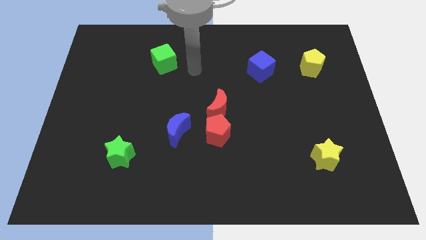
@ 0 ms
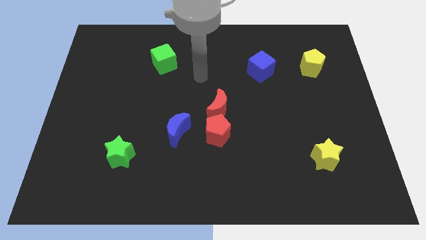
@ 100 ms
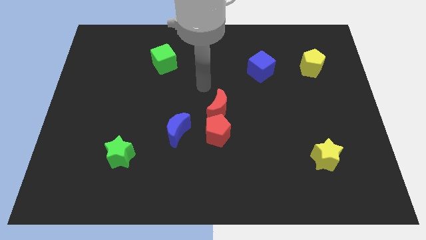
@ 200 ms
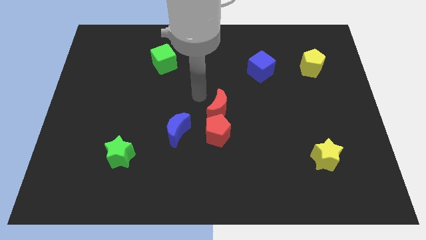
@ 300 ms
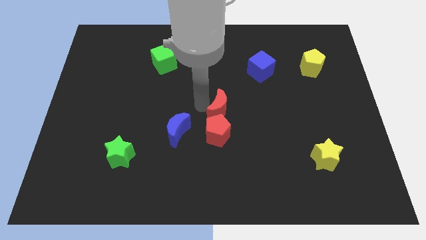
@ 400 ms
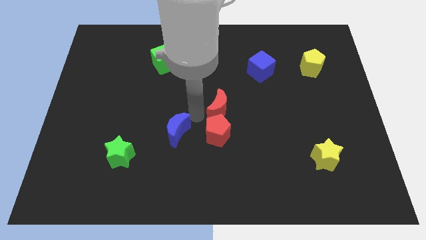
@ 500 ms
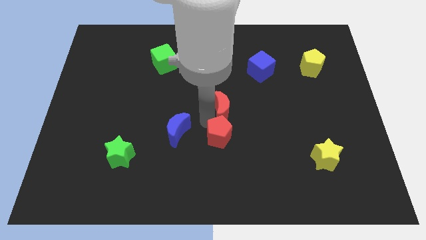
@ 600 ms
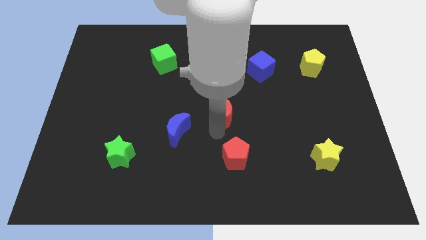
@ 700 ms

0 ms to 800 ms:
move the red moon away from the red pentagon

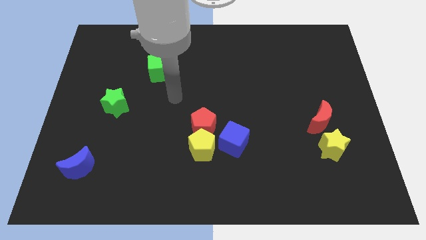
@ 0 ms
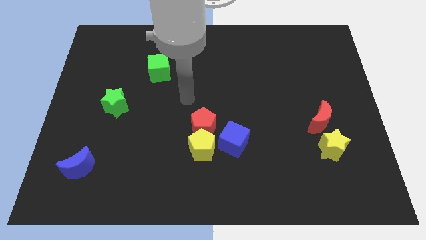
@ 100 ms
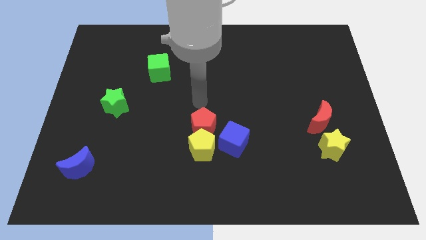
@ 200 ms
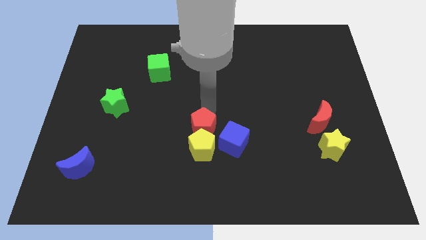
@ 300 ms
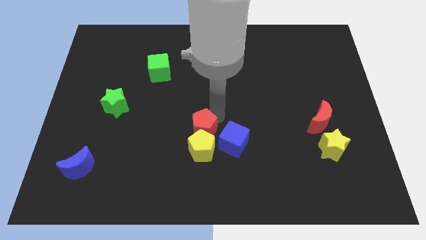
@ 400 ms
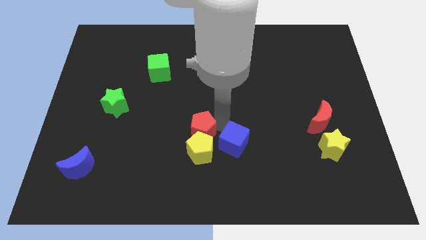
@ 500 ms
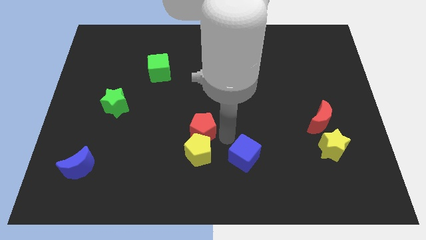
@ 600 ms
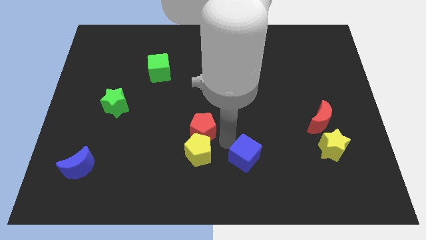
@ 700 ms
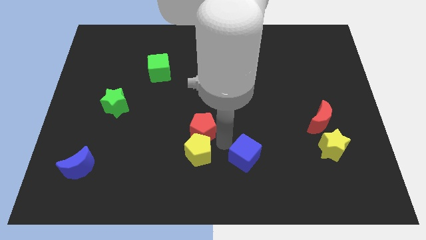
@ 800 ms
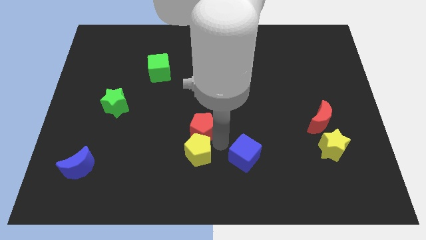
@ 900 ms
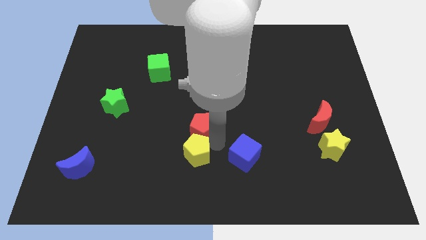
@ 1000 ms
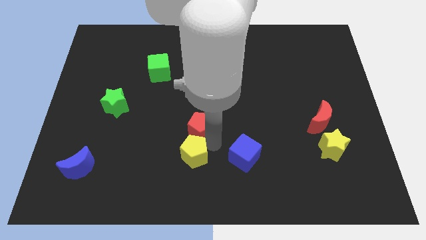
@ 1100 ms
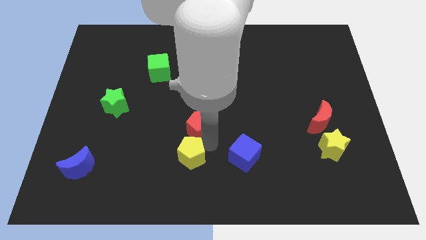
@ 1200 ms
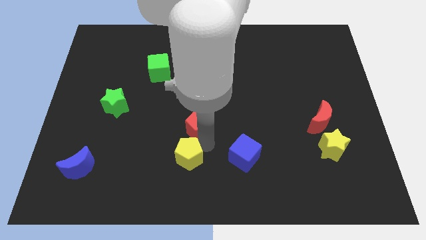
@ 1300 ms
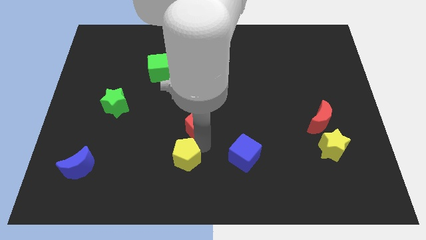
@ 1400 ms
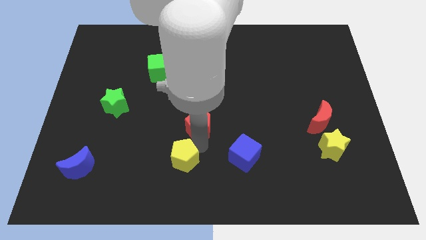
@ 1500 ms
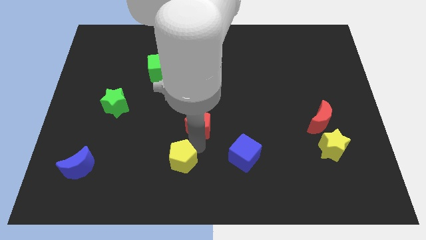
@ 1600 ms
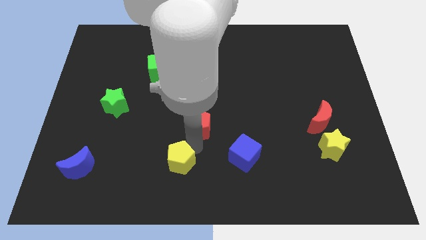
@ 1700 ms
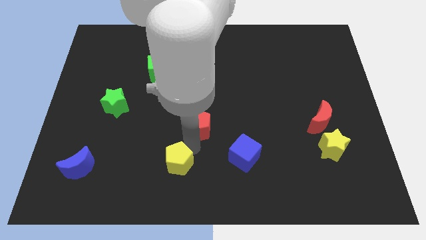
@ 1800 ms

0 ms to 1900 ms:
move the yellow pentagon away from the red pentagon and blue cube

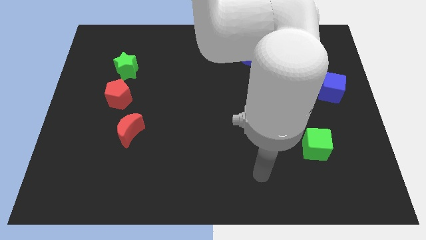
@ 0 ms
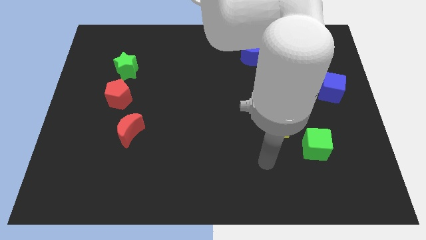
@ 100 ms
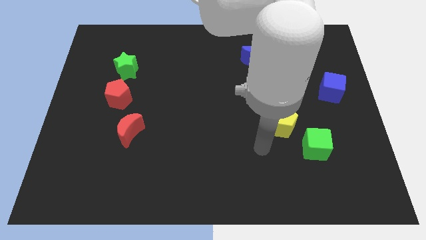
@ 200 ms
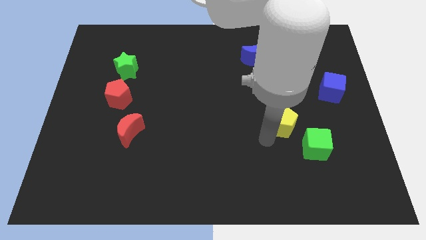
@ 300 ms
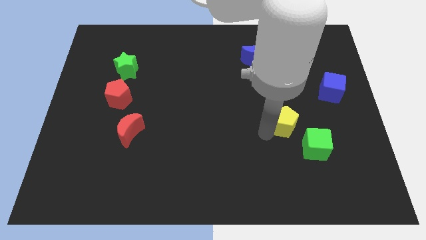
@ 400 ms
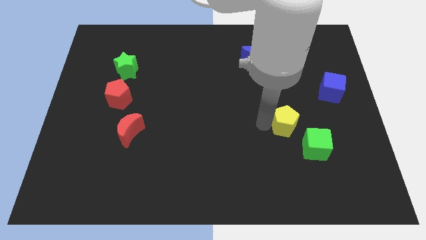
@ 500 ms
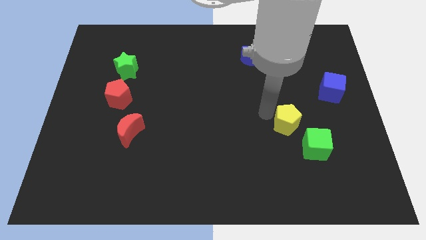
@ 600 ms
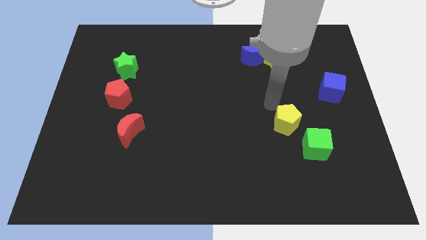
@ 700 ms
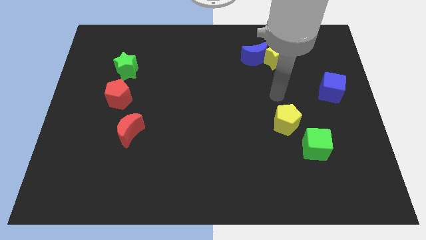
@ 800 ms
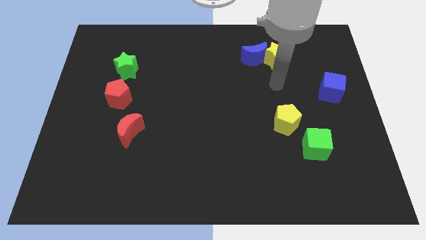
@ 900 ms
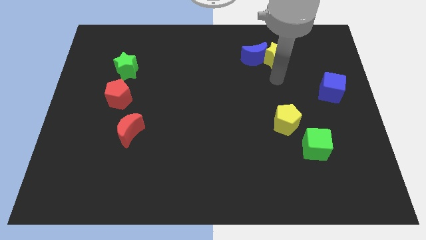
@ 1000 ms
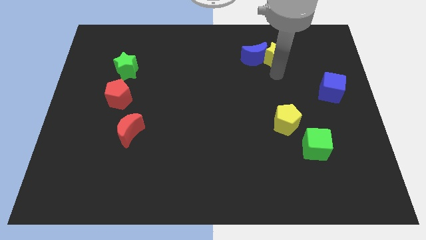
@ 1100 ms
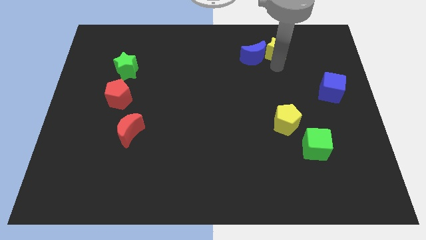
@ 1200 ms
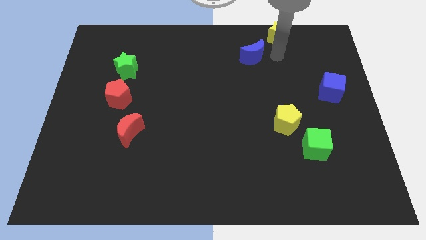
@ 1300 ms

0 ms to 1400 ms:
pull the blue moon apart from the yellow star

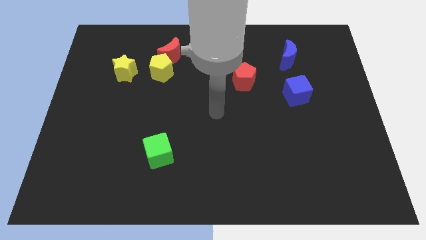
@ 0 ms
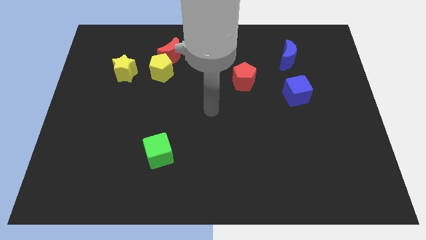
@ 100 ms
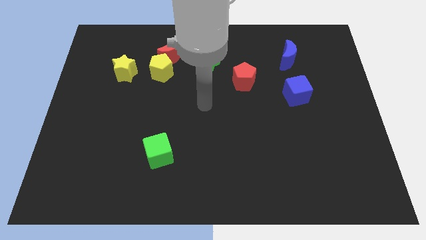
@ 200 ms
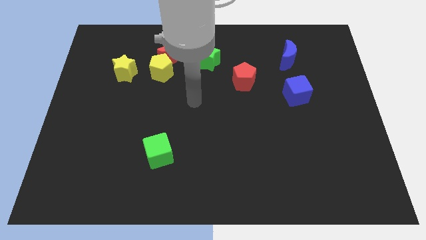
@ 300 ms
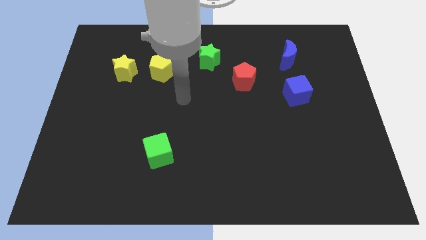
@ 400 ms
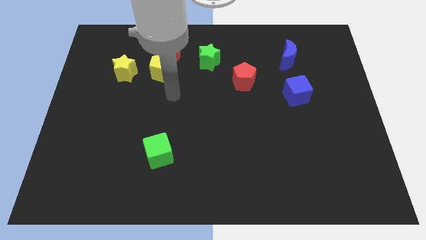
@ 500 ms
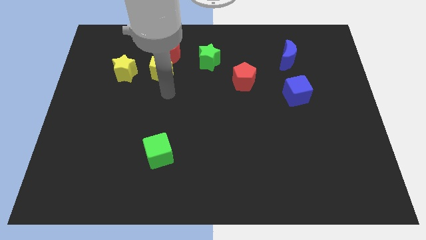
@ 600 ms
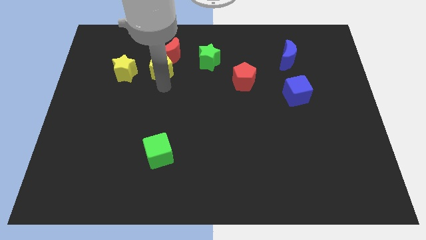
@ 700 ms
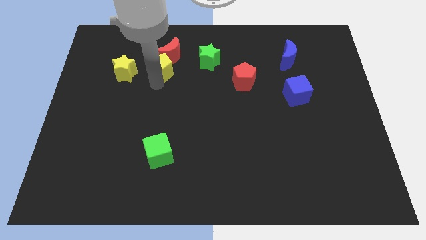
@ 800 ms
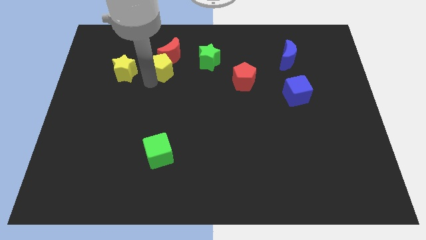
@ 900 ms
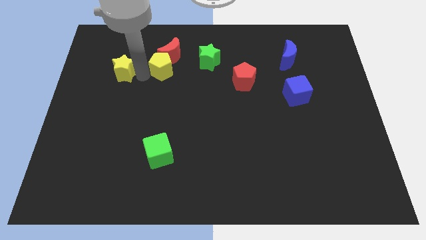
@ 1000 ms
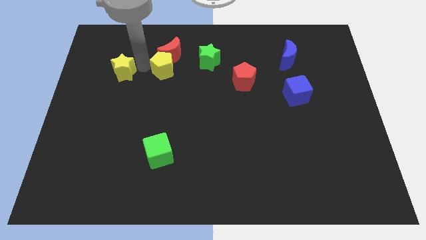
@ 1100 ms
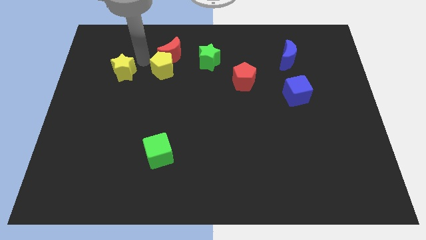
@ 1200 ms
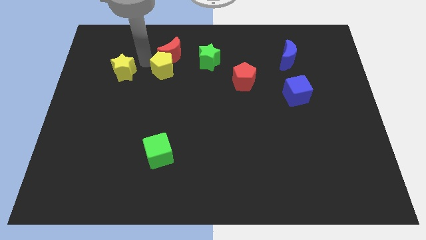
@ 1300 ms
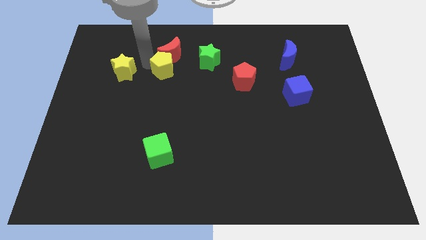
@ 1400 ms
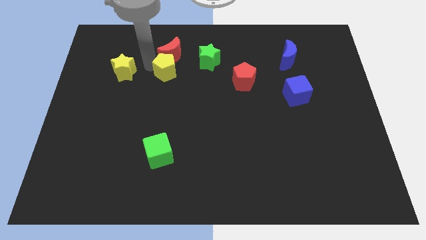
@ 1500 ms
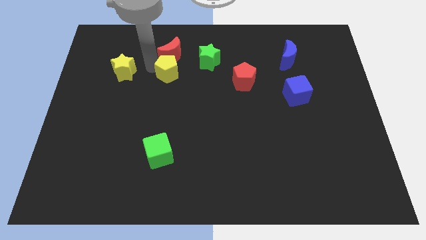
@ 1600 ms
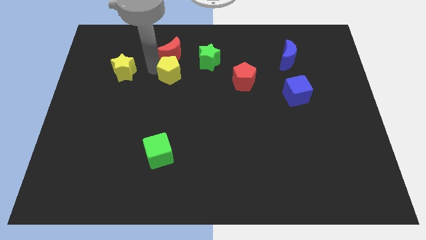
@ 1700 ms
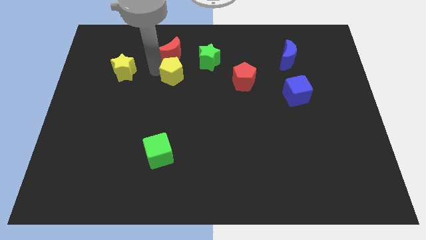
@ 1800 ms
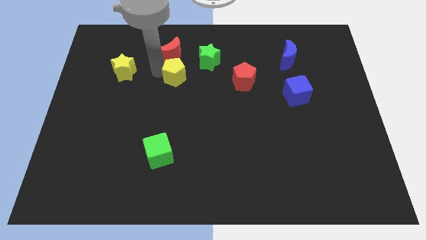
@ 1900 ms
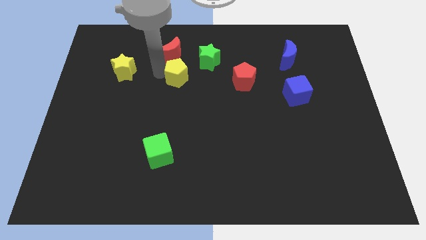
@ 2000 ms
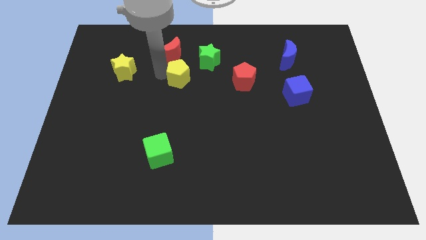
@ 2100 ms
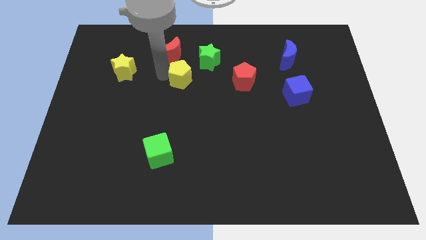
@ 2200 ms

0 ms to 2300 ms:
pull the yellow pentagon apart from the red moon and yellow star

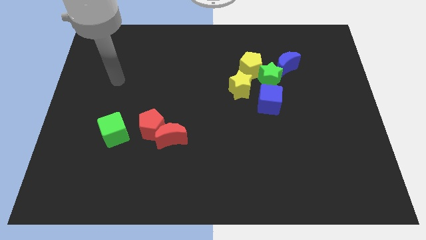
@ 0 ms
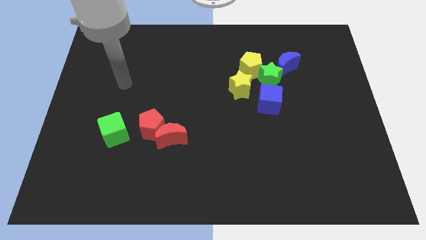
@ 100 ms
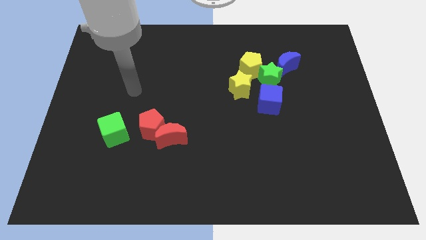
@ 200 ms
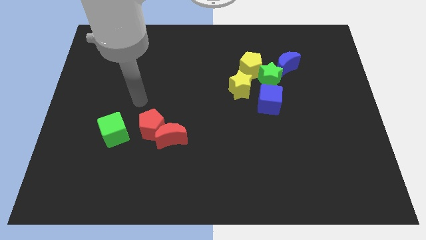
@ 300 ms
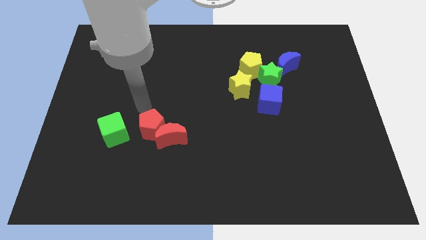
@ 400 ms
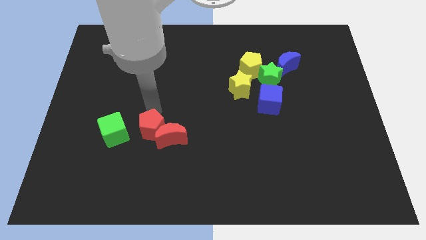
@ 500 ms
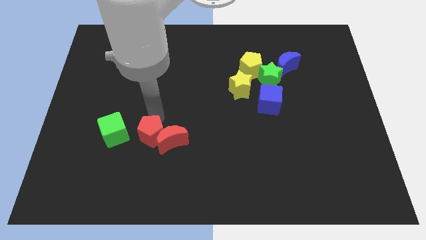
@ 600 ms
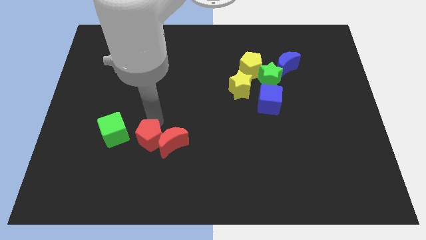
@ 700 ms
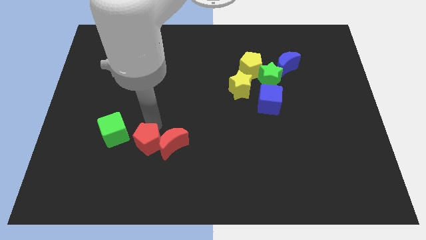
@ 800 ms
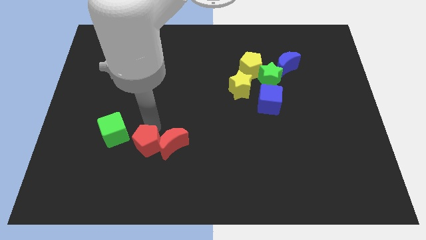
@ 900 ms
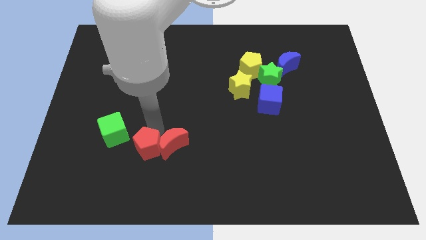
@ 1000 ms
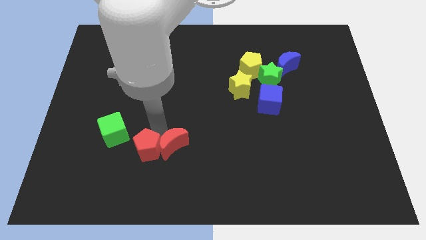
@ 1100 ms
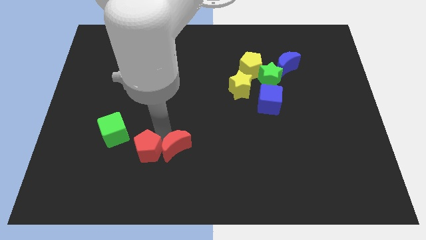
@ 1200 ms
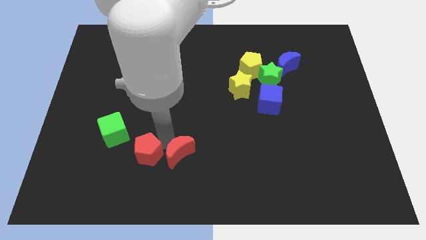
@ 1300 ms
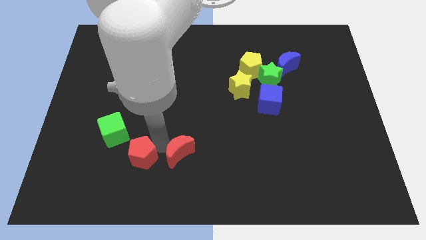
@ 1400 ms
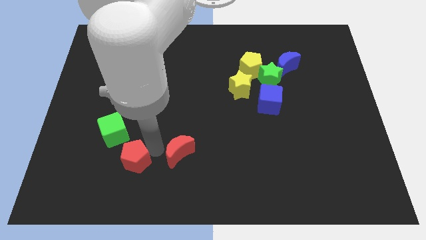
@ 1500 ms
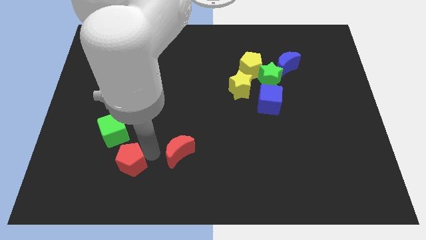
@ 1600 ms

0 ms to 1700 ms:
pull the red moon apart from the red pentagon

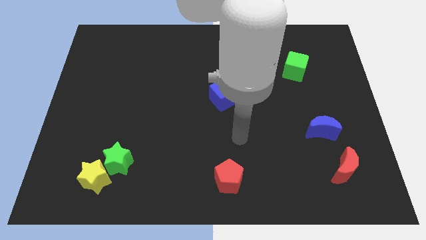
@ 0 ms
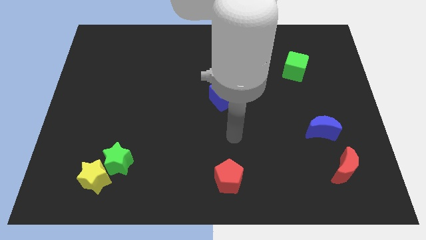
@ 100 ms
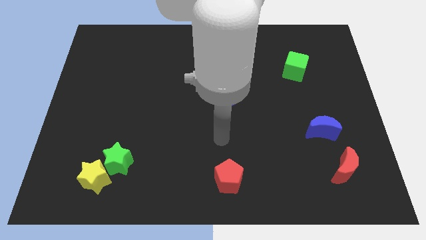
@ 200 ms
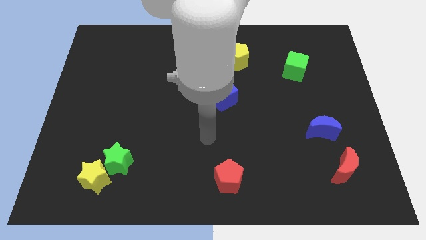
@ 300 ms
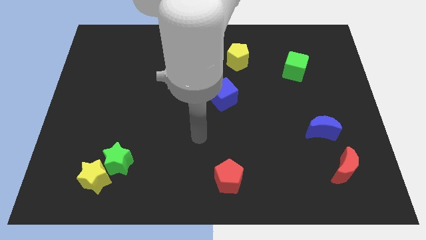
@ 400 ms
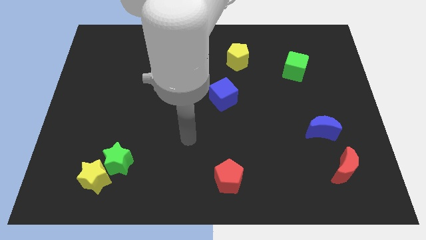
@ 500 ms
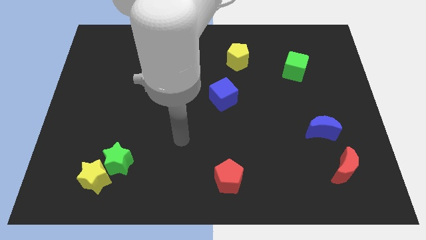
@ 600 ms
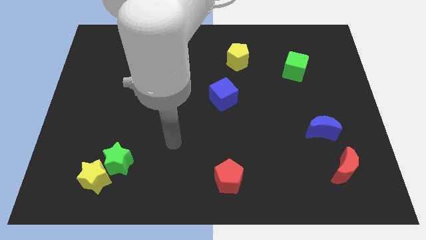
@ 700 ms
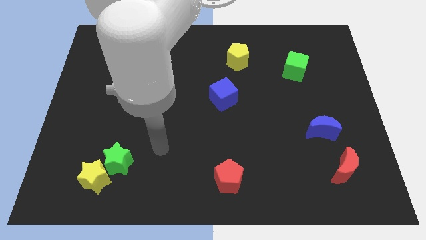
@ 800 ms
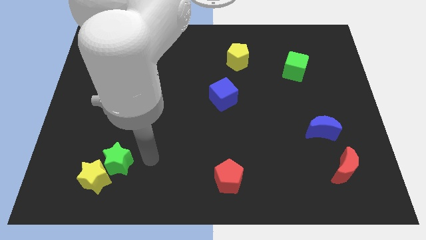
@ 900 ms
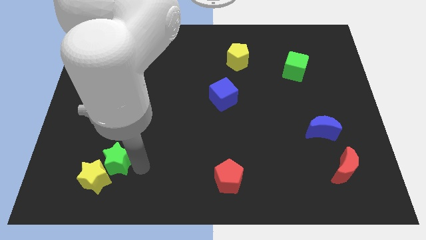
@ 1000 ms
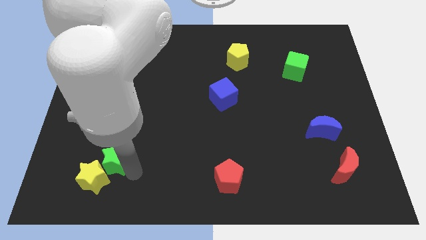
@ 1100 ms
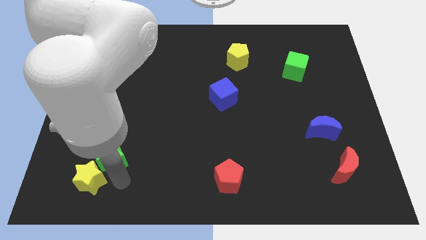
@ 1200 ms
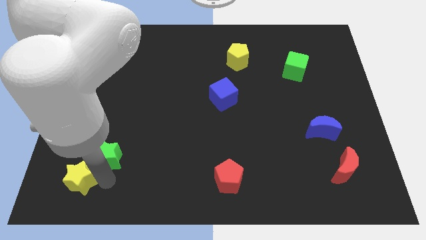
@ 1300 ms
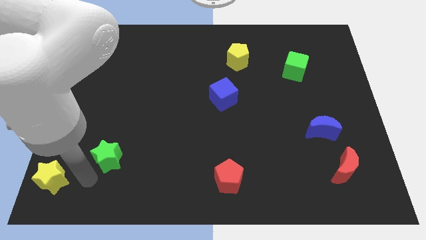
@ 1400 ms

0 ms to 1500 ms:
pull the green star apart from the yellow star
